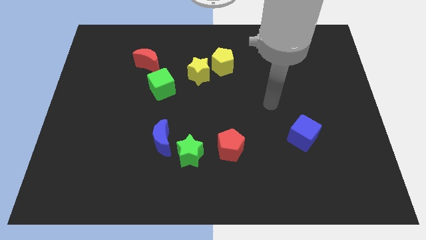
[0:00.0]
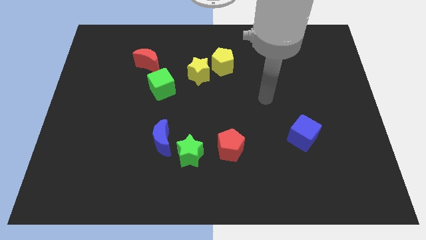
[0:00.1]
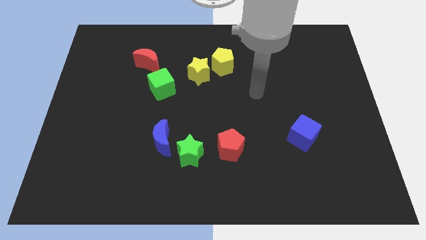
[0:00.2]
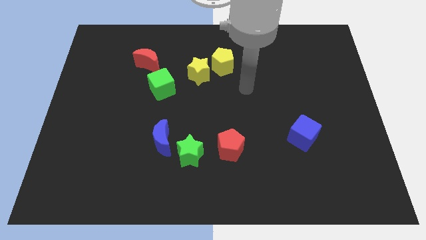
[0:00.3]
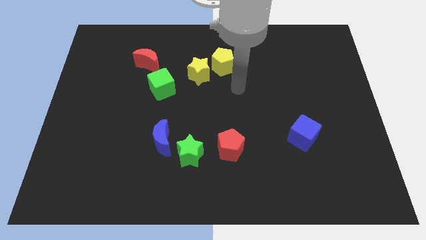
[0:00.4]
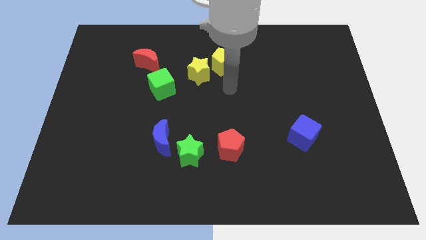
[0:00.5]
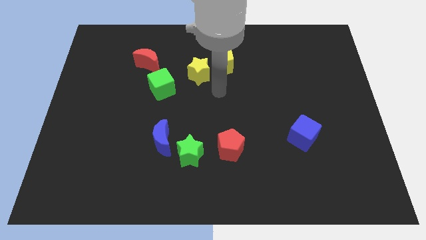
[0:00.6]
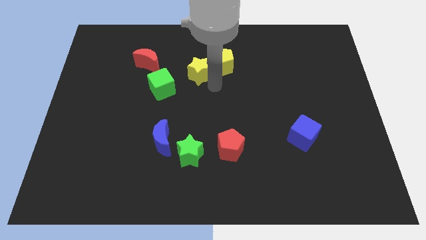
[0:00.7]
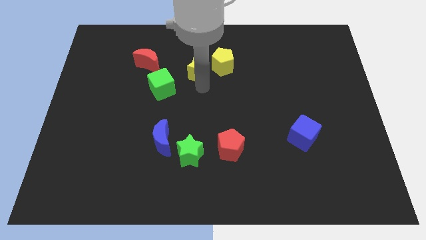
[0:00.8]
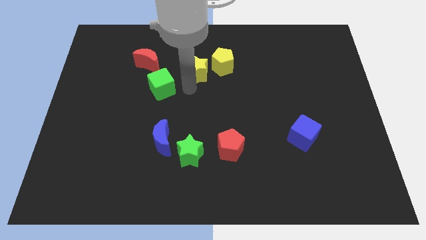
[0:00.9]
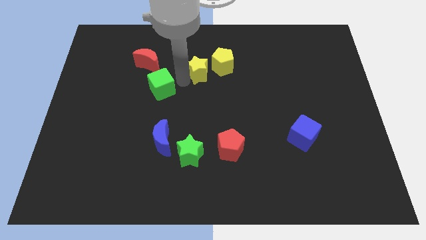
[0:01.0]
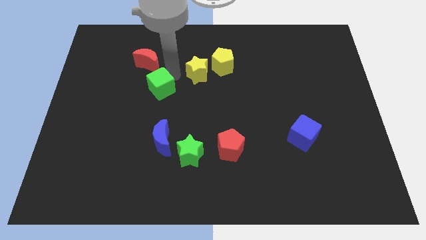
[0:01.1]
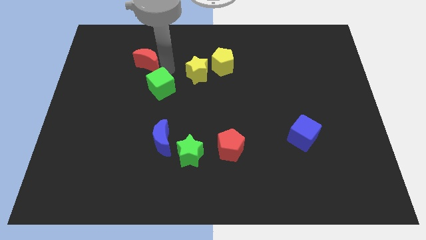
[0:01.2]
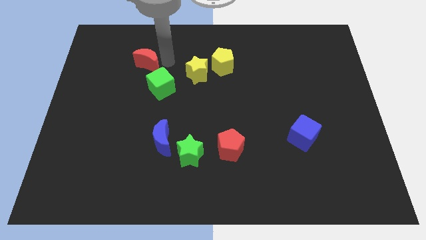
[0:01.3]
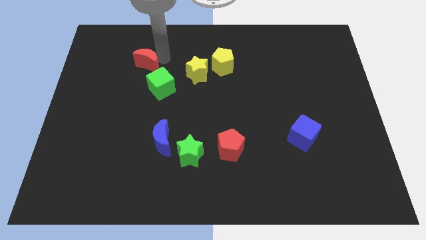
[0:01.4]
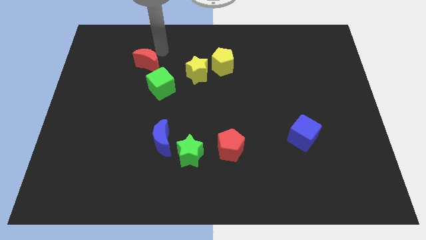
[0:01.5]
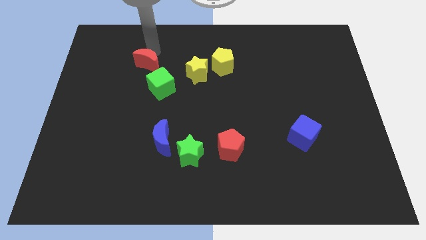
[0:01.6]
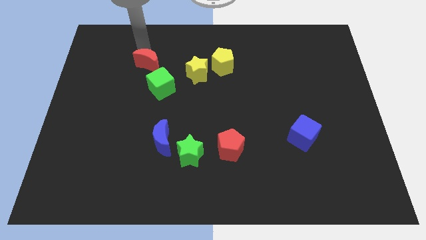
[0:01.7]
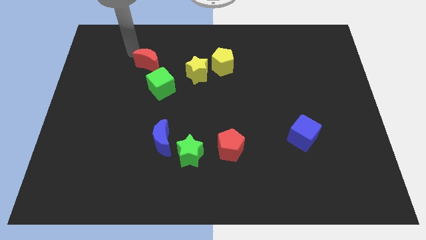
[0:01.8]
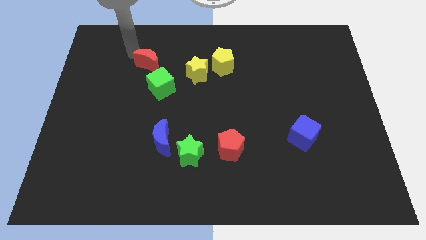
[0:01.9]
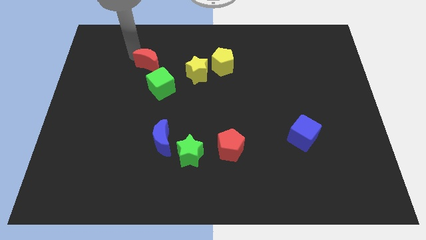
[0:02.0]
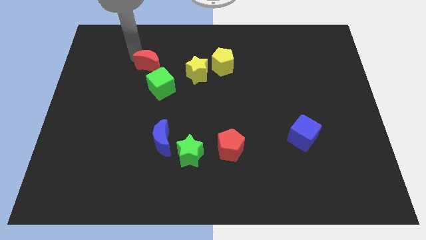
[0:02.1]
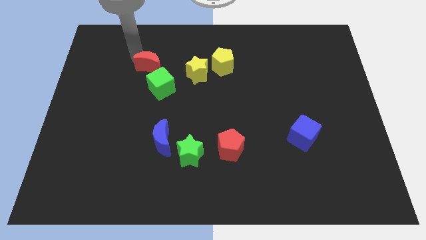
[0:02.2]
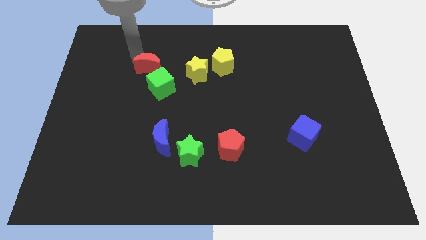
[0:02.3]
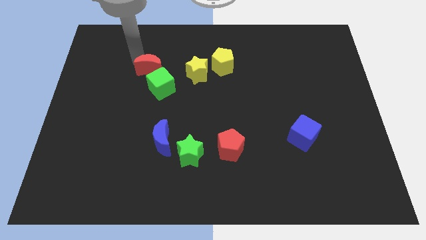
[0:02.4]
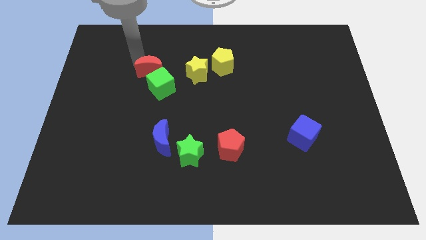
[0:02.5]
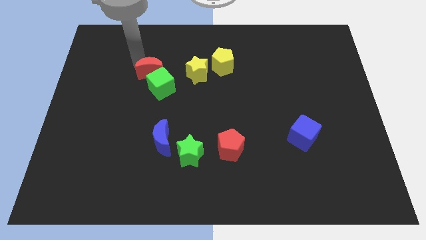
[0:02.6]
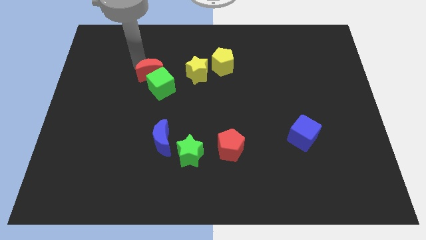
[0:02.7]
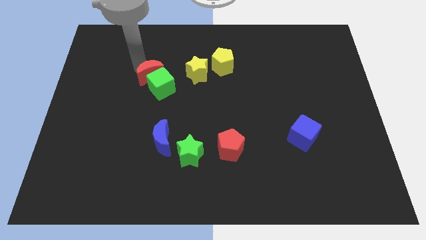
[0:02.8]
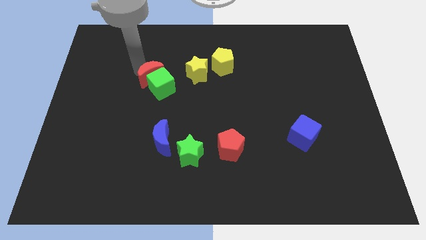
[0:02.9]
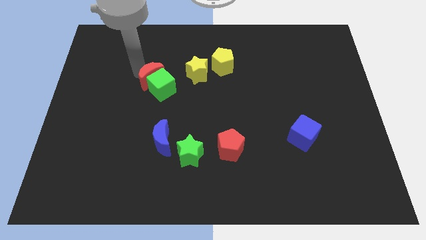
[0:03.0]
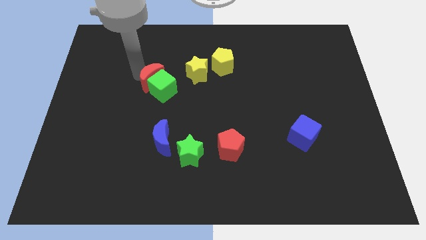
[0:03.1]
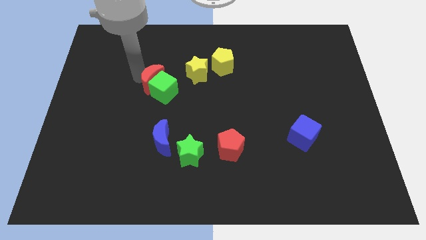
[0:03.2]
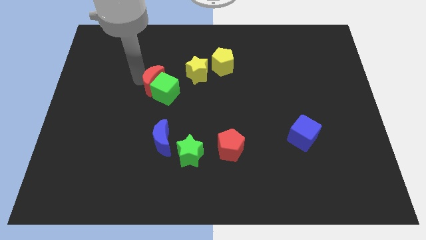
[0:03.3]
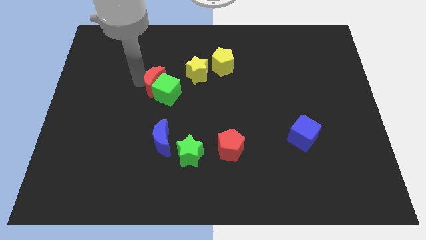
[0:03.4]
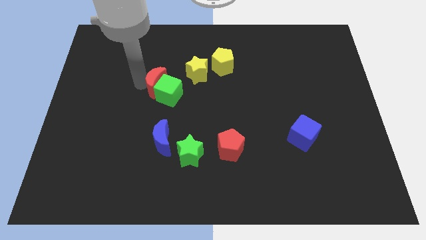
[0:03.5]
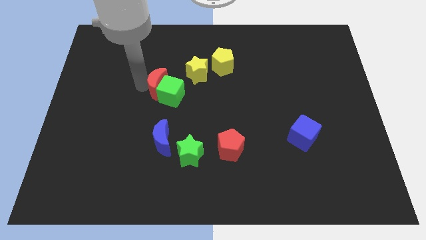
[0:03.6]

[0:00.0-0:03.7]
slightly slide the red moon downwards and right

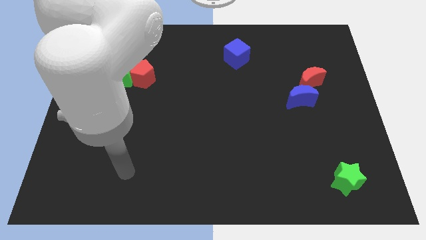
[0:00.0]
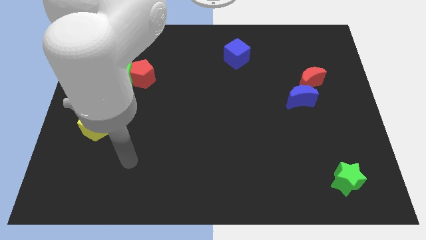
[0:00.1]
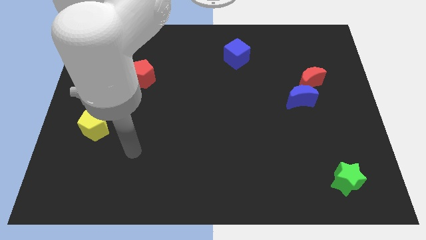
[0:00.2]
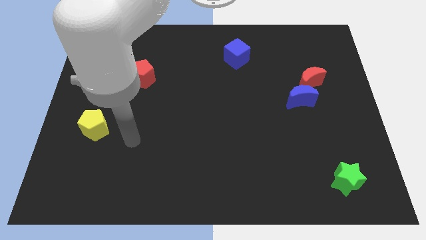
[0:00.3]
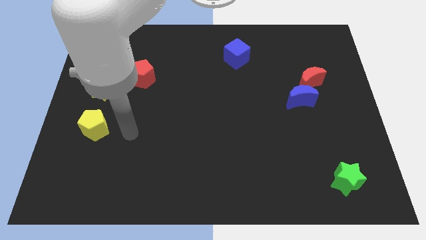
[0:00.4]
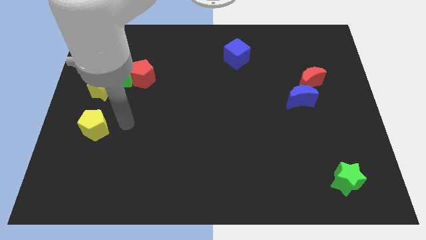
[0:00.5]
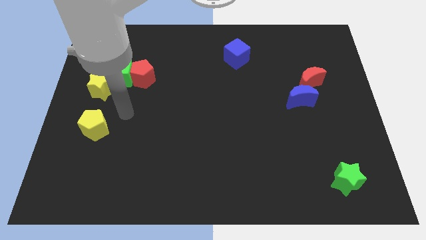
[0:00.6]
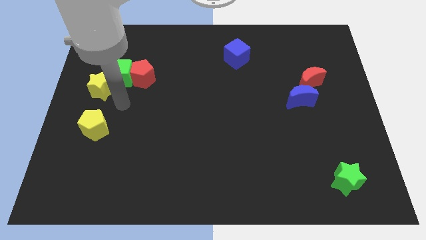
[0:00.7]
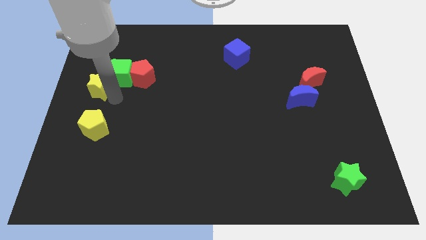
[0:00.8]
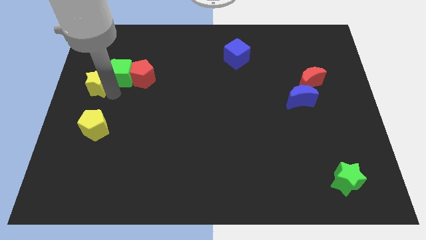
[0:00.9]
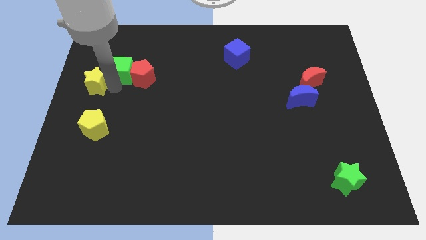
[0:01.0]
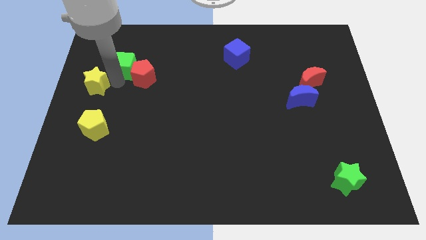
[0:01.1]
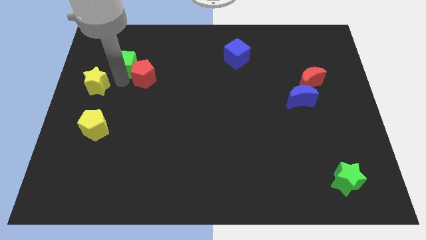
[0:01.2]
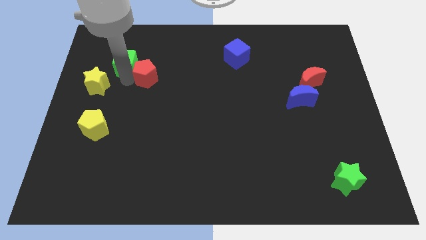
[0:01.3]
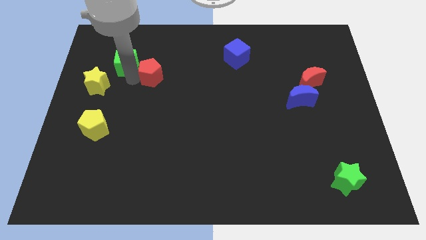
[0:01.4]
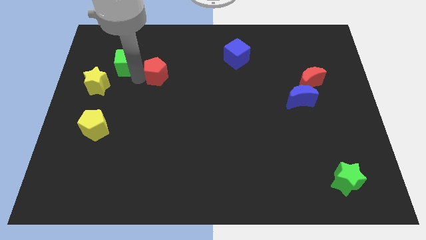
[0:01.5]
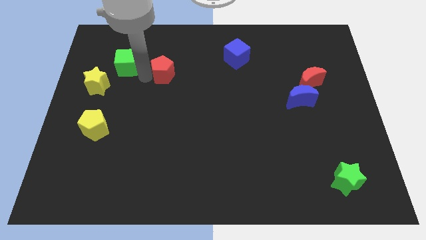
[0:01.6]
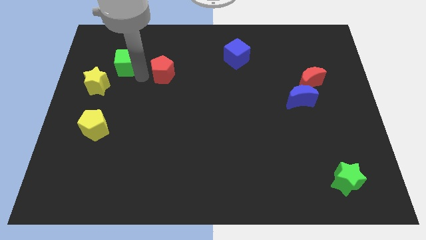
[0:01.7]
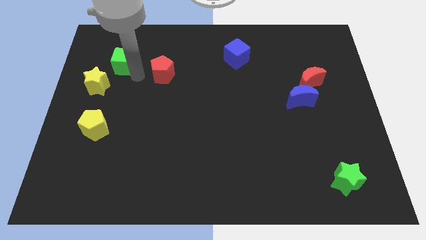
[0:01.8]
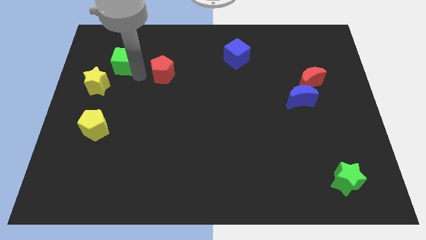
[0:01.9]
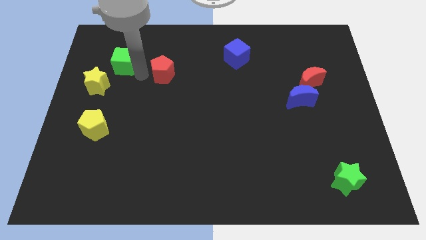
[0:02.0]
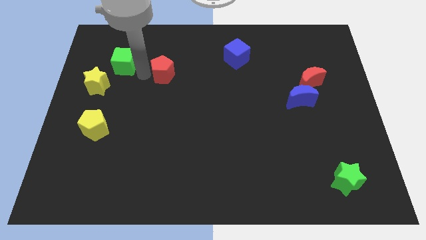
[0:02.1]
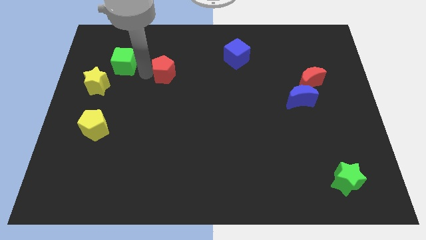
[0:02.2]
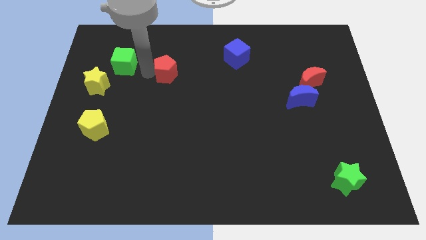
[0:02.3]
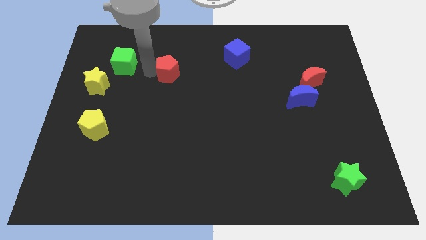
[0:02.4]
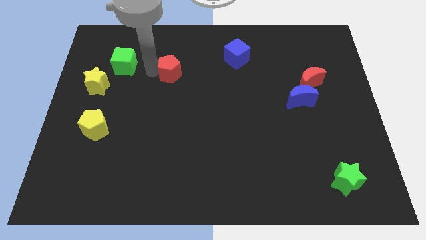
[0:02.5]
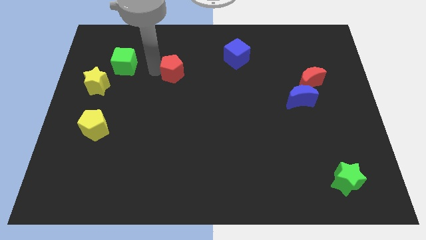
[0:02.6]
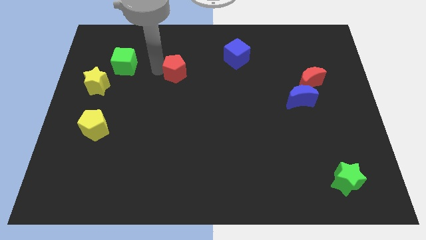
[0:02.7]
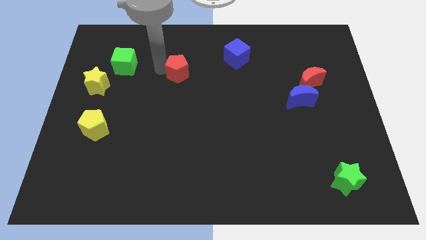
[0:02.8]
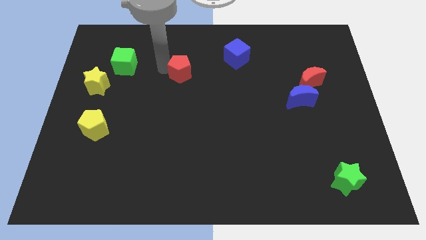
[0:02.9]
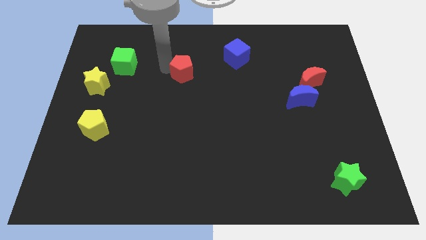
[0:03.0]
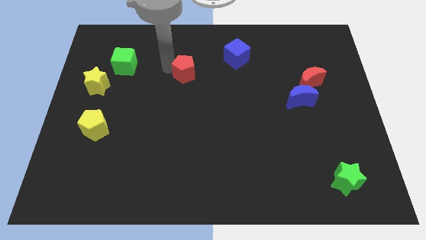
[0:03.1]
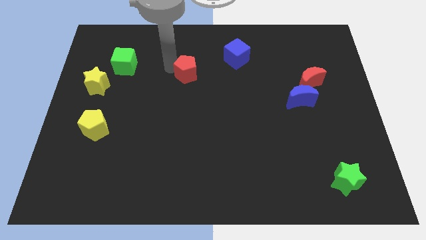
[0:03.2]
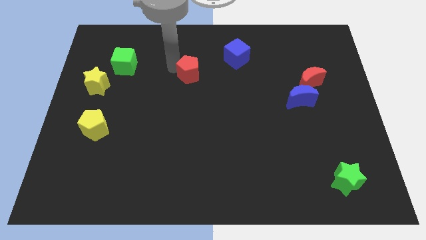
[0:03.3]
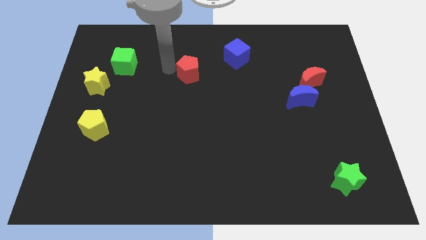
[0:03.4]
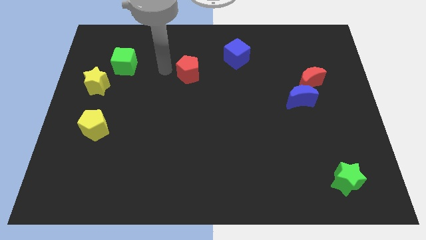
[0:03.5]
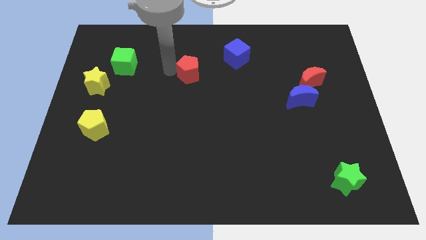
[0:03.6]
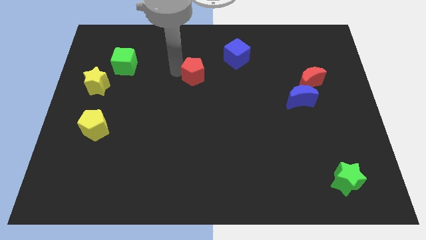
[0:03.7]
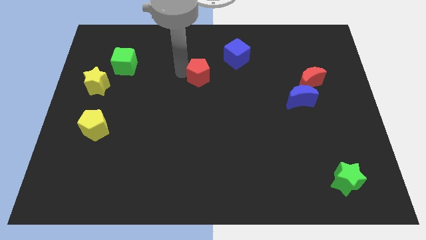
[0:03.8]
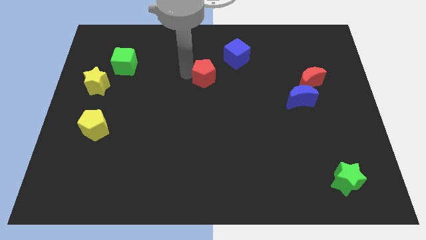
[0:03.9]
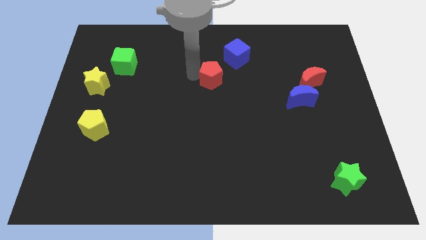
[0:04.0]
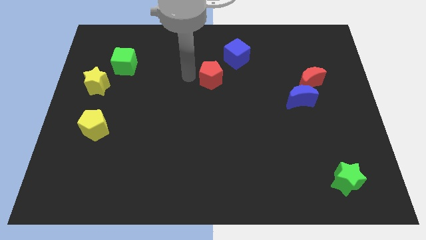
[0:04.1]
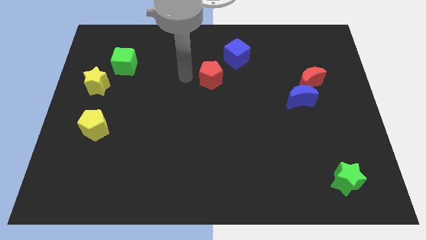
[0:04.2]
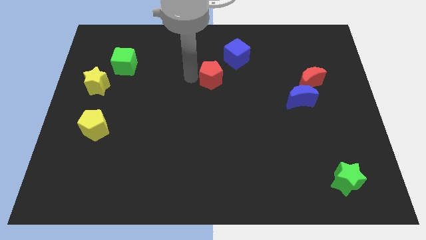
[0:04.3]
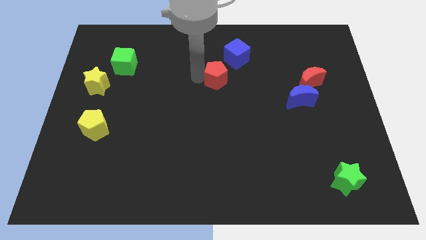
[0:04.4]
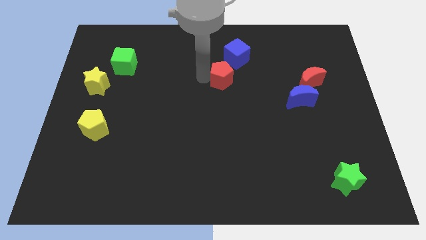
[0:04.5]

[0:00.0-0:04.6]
slide the red pentagon to the right
